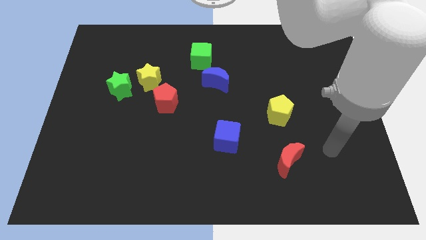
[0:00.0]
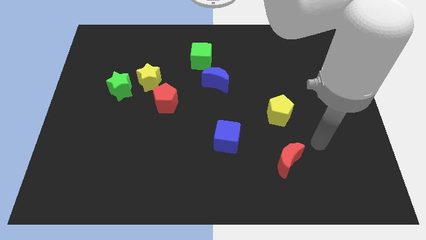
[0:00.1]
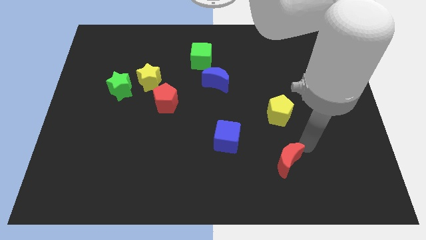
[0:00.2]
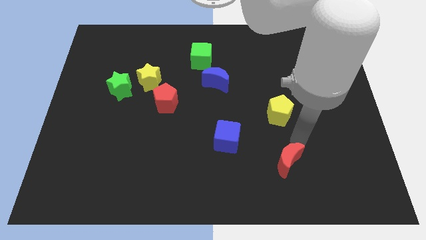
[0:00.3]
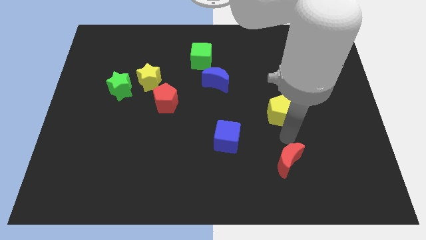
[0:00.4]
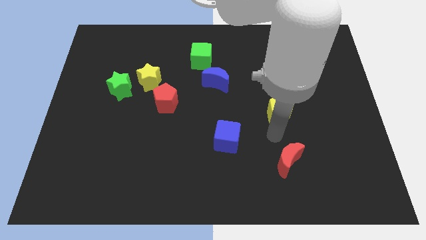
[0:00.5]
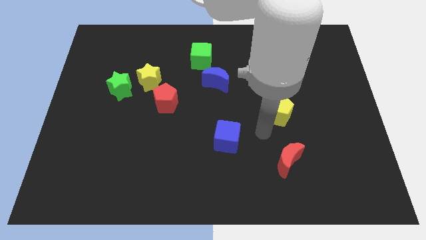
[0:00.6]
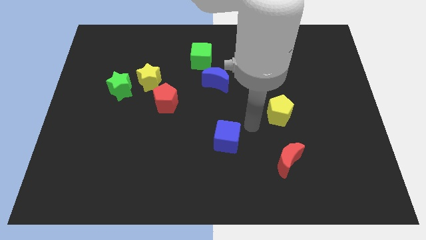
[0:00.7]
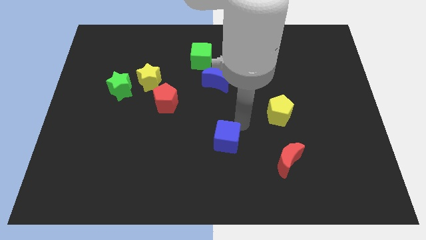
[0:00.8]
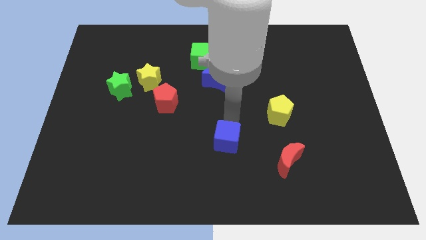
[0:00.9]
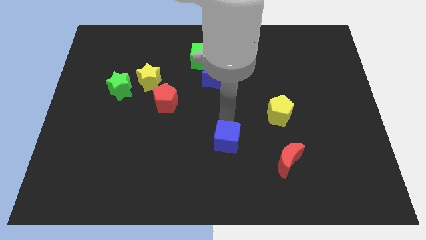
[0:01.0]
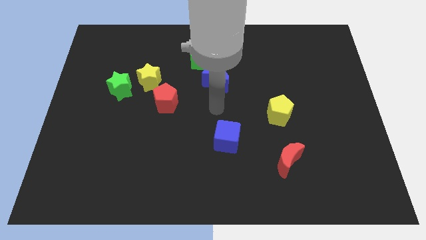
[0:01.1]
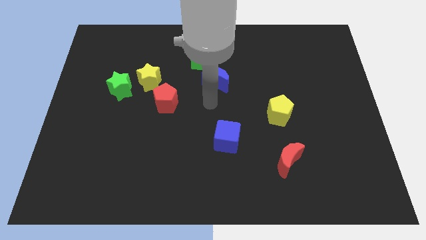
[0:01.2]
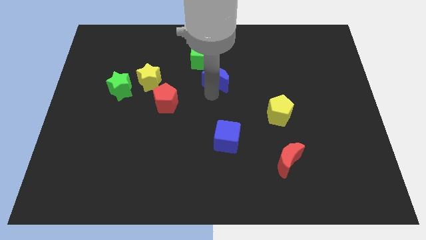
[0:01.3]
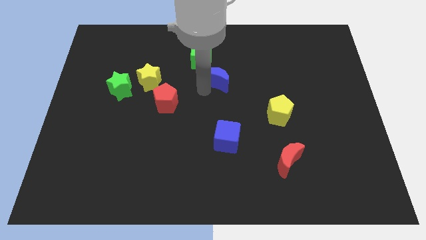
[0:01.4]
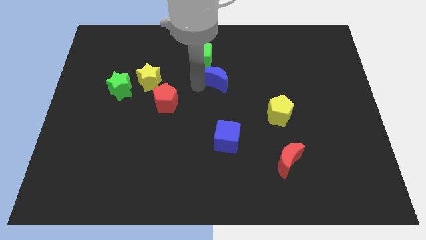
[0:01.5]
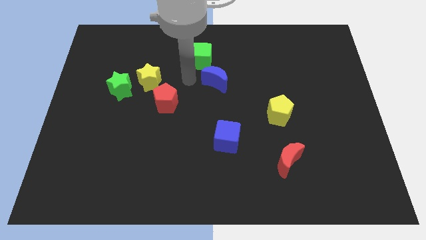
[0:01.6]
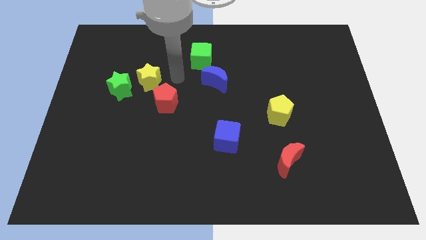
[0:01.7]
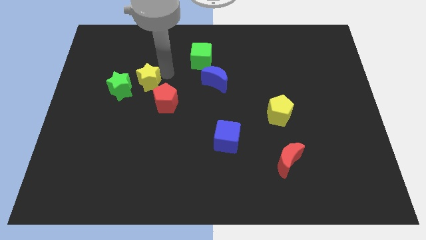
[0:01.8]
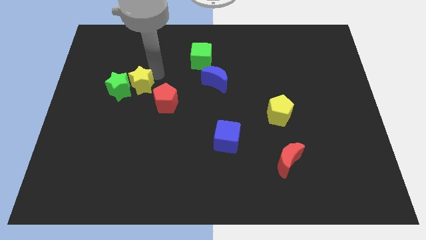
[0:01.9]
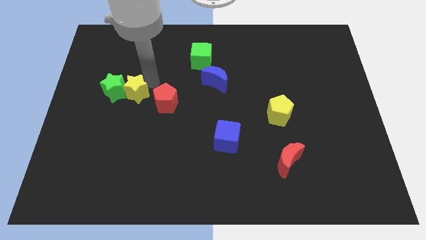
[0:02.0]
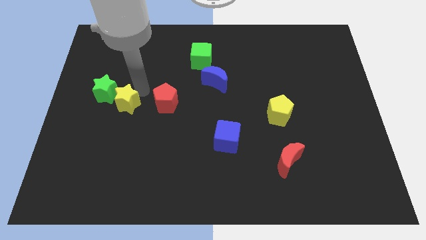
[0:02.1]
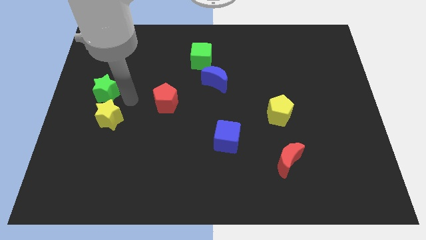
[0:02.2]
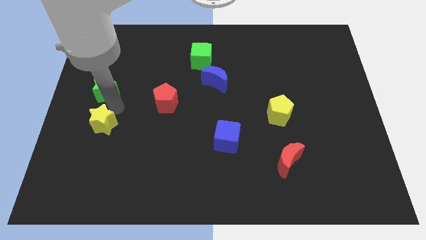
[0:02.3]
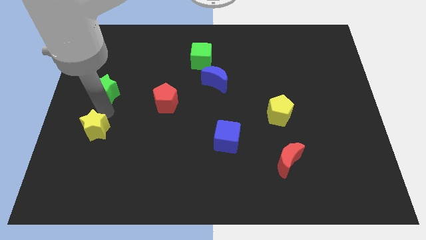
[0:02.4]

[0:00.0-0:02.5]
pull the green star apart from the yellow star

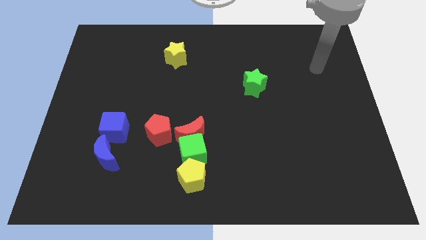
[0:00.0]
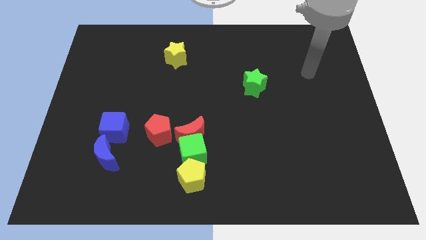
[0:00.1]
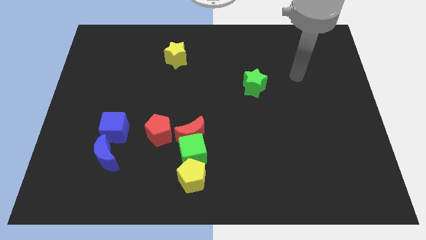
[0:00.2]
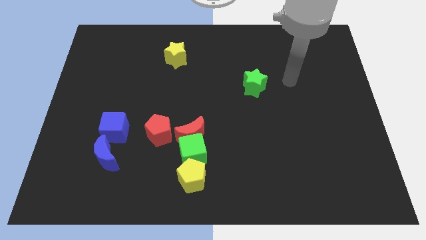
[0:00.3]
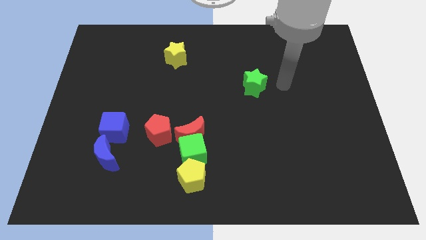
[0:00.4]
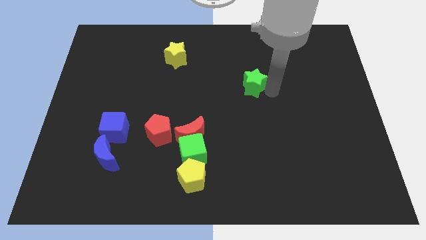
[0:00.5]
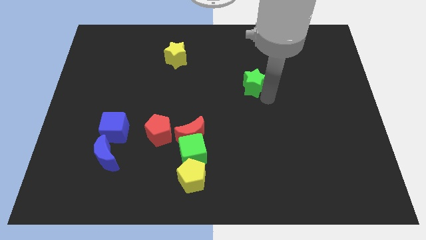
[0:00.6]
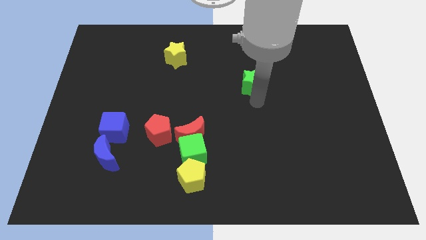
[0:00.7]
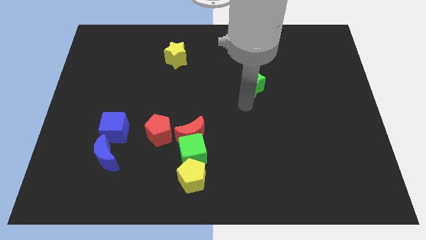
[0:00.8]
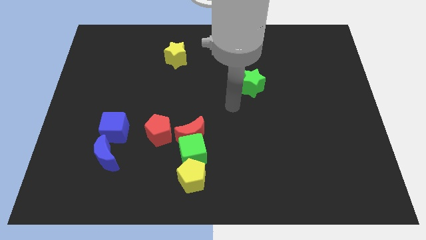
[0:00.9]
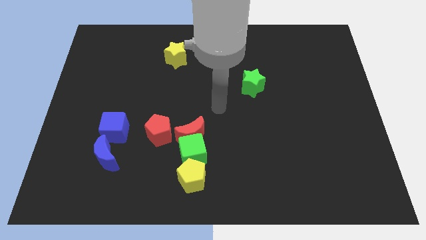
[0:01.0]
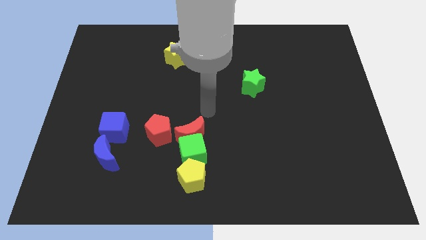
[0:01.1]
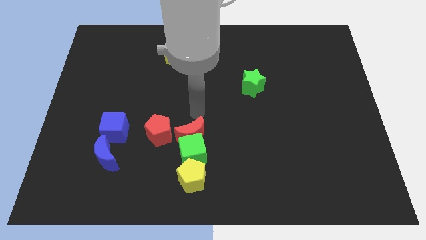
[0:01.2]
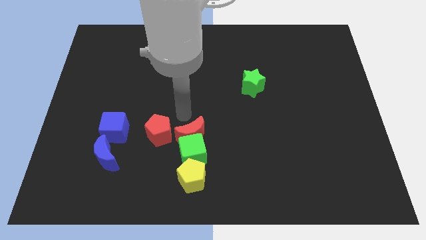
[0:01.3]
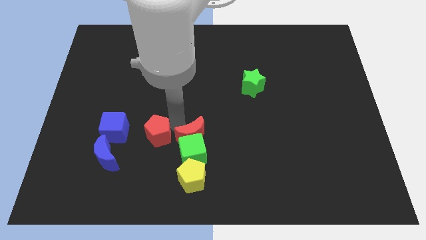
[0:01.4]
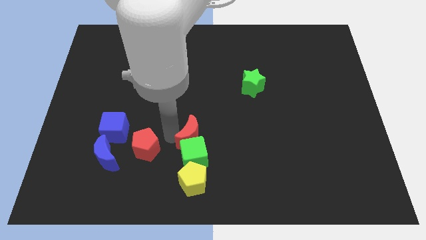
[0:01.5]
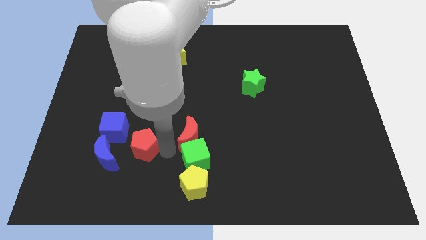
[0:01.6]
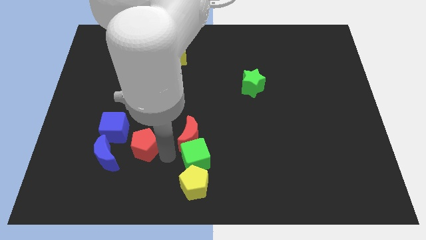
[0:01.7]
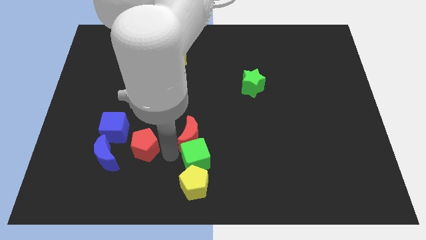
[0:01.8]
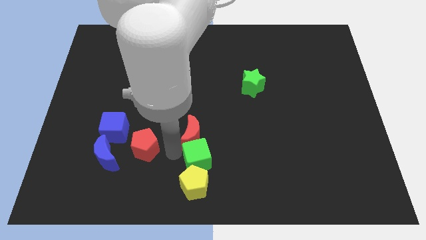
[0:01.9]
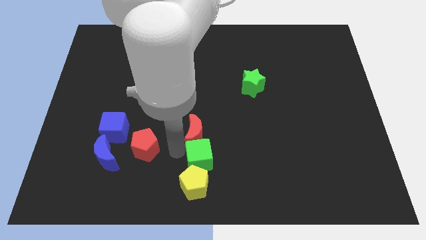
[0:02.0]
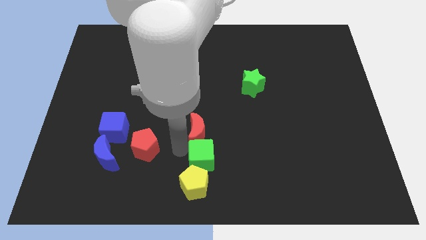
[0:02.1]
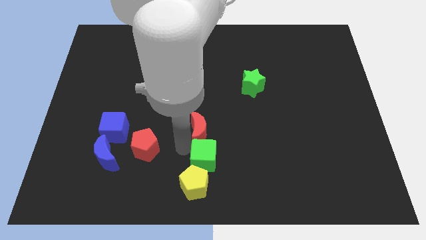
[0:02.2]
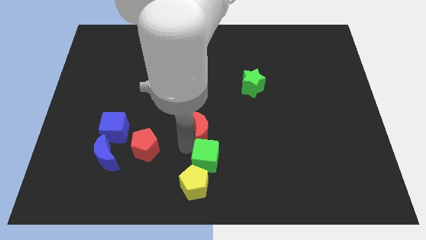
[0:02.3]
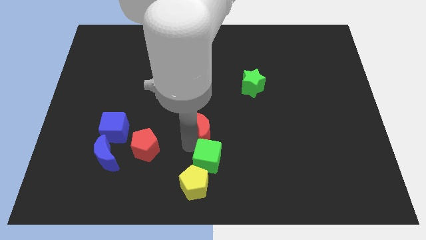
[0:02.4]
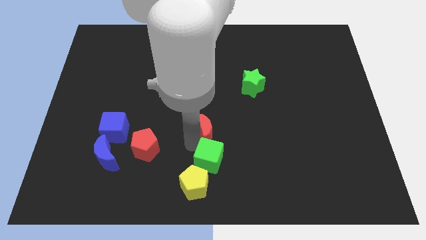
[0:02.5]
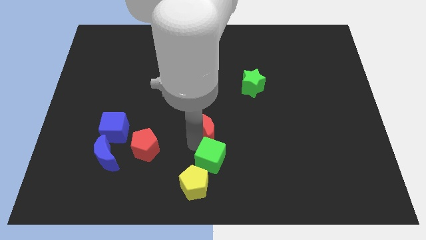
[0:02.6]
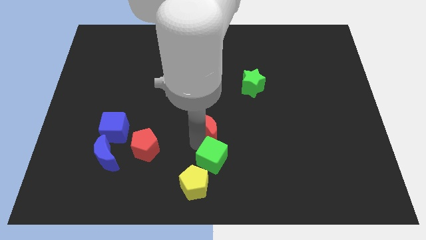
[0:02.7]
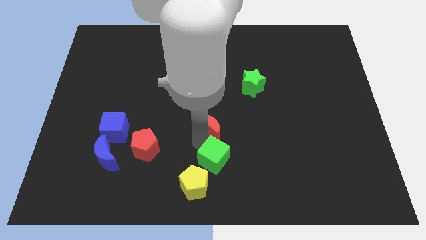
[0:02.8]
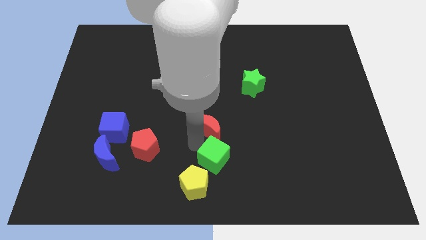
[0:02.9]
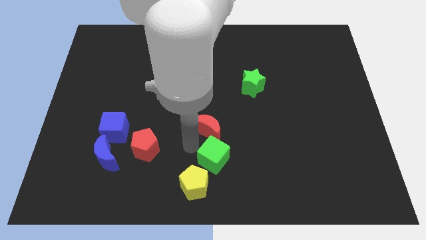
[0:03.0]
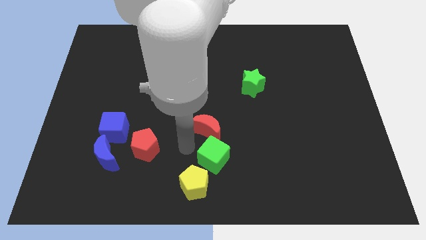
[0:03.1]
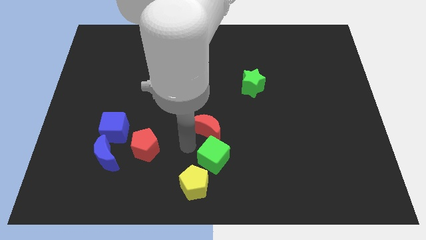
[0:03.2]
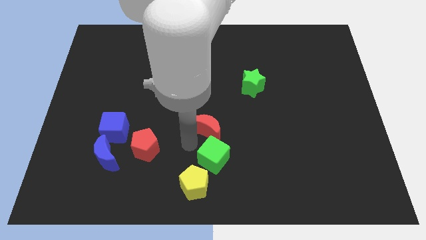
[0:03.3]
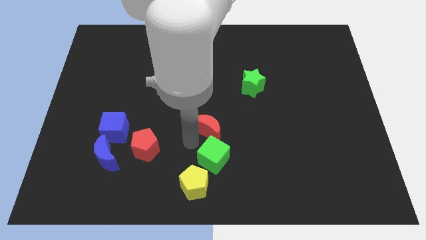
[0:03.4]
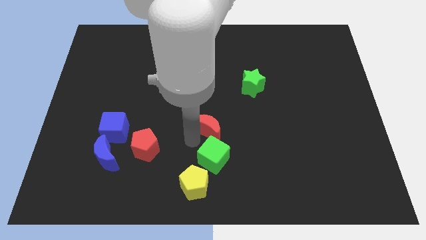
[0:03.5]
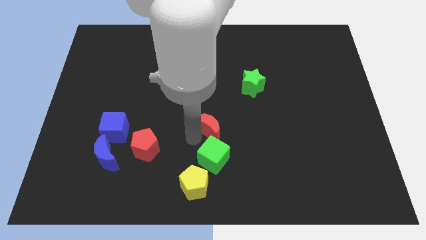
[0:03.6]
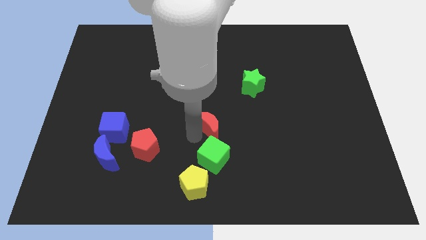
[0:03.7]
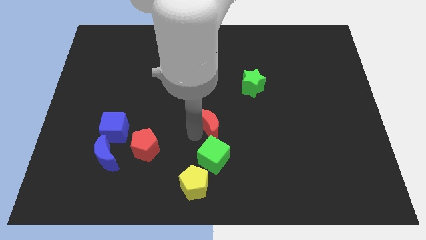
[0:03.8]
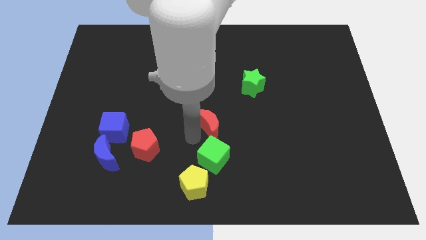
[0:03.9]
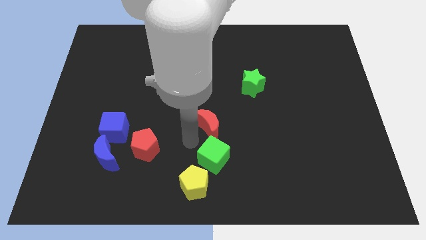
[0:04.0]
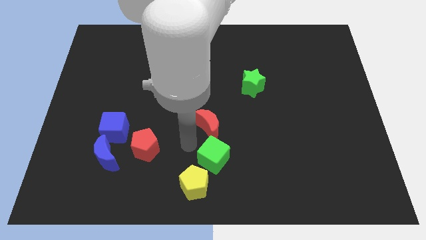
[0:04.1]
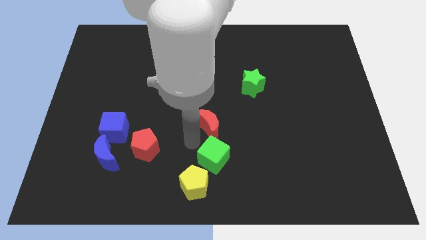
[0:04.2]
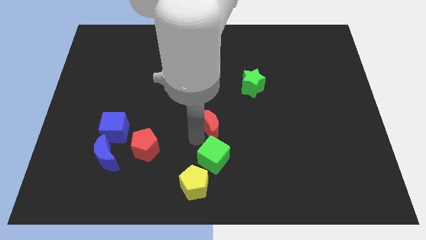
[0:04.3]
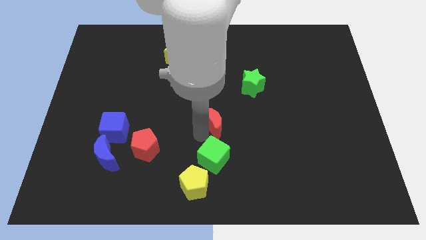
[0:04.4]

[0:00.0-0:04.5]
move the red moon away from the green cube and red pentagon

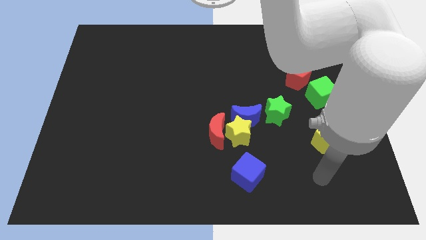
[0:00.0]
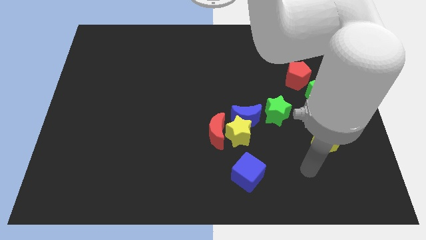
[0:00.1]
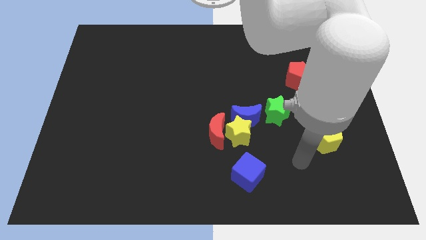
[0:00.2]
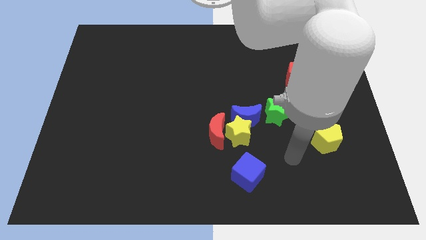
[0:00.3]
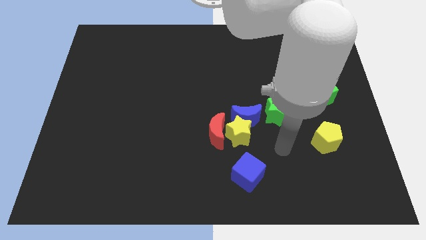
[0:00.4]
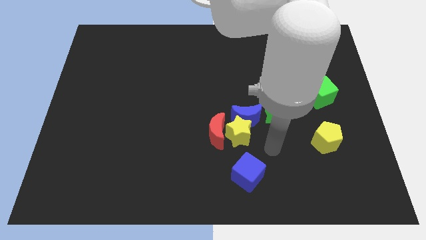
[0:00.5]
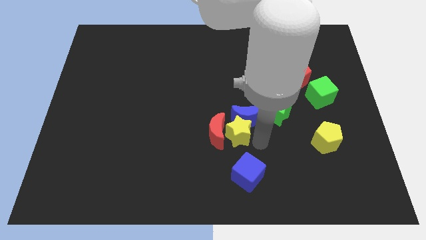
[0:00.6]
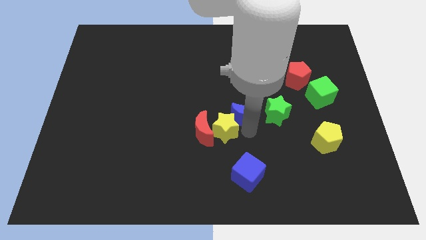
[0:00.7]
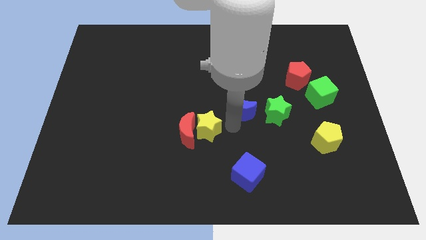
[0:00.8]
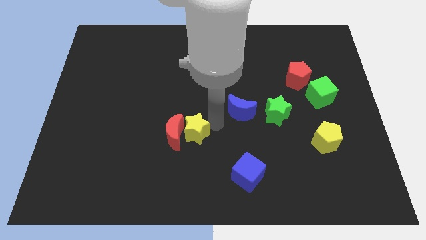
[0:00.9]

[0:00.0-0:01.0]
pull the red moon apart from the yellow star and blue moon

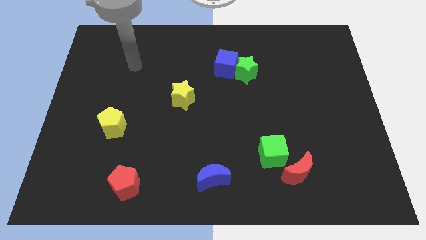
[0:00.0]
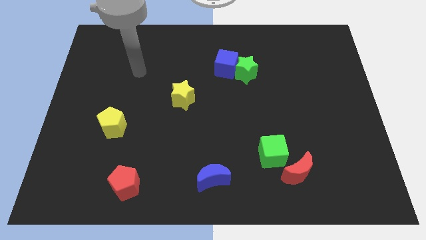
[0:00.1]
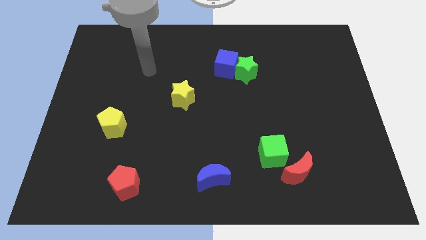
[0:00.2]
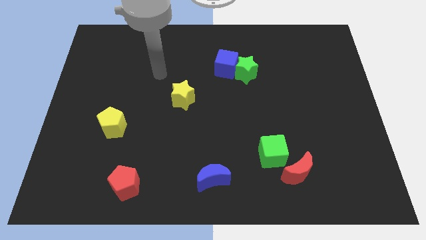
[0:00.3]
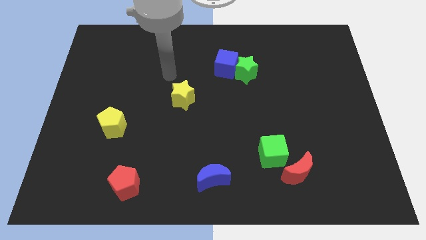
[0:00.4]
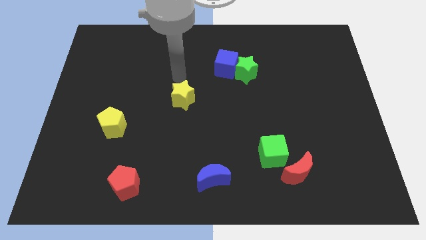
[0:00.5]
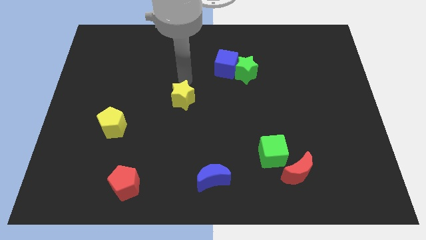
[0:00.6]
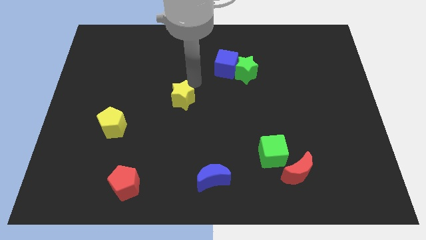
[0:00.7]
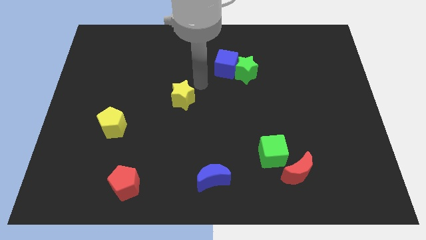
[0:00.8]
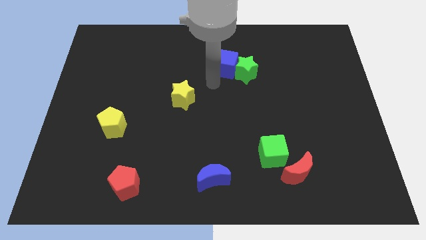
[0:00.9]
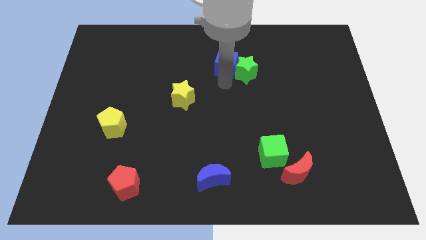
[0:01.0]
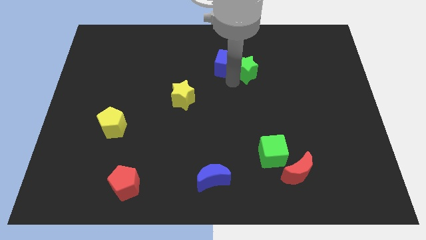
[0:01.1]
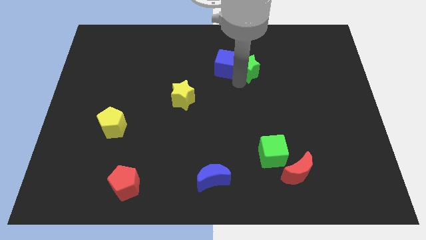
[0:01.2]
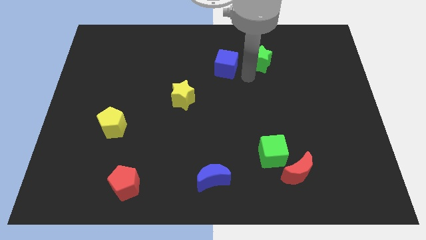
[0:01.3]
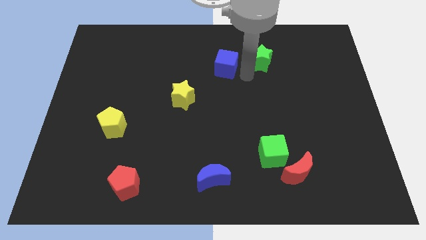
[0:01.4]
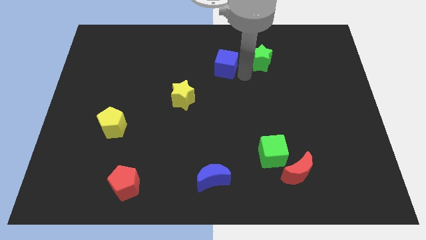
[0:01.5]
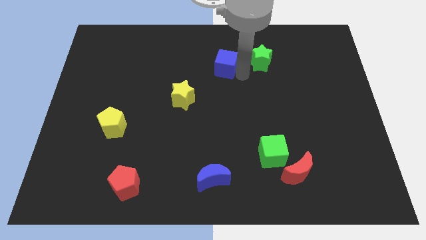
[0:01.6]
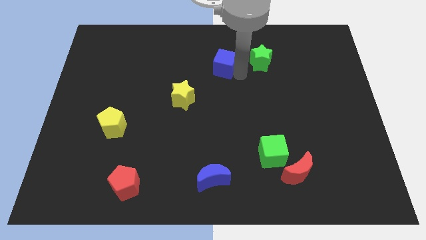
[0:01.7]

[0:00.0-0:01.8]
pull the blue cube apart from the green star
